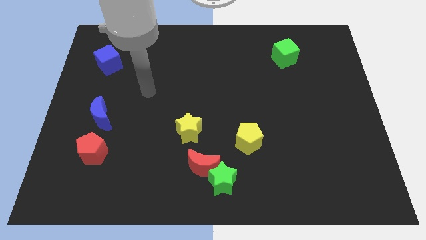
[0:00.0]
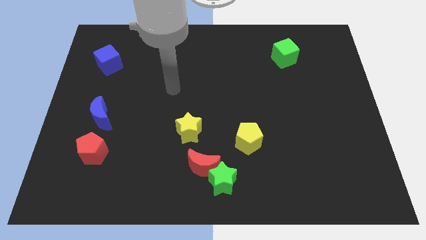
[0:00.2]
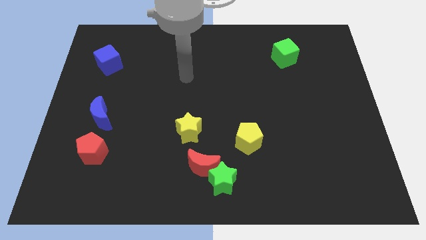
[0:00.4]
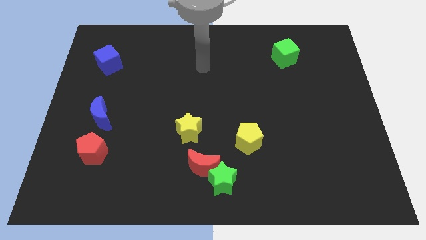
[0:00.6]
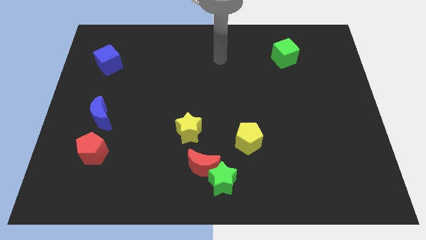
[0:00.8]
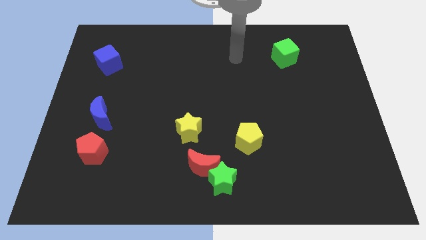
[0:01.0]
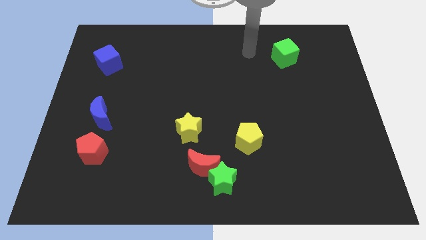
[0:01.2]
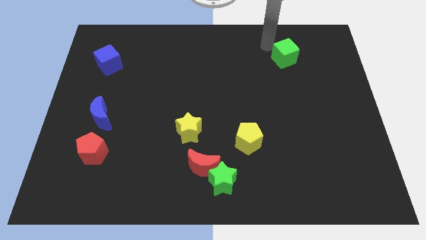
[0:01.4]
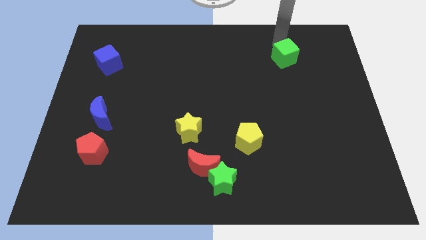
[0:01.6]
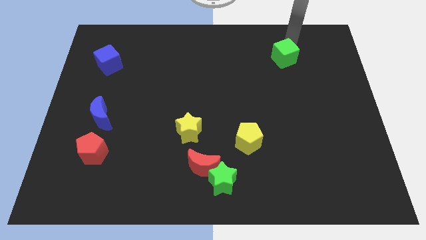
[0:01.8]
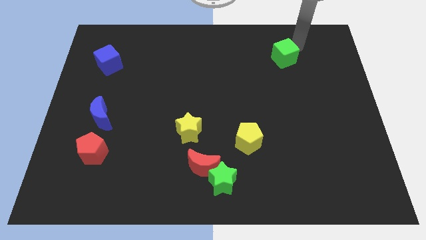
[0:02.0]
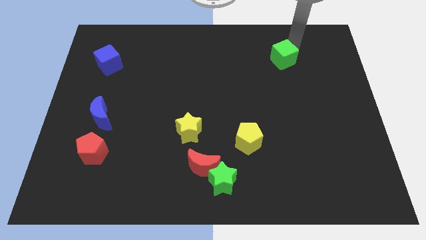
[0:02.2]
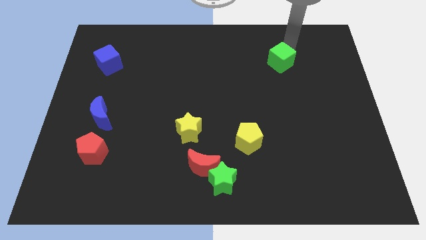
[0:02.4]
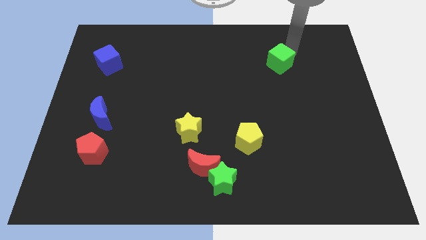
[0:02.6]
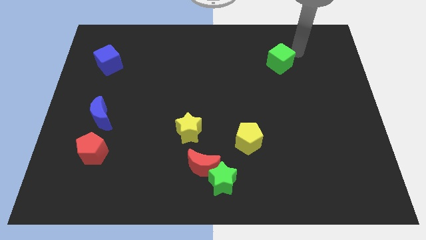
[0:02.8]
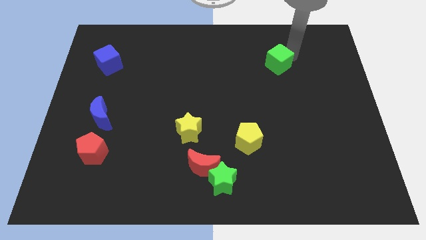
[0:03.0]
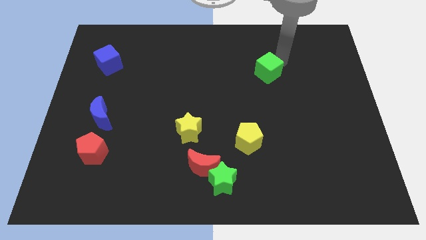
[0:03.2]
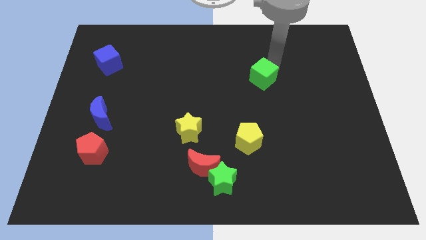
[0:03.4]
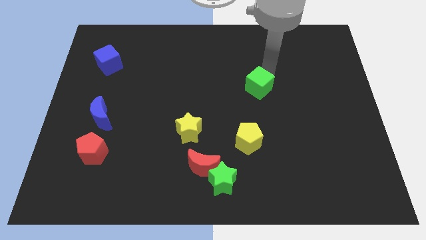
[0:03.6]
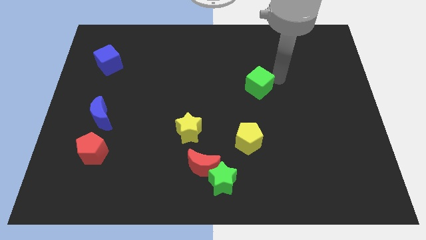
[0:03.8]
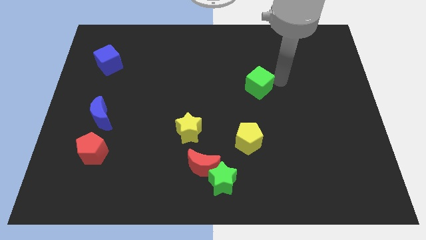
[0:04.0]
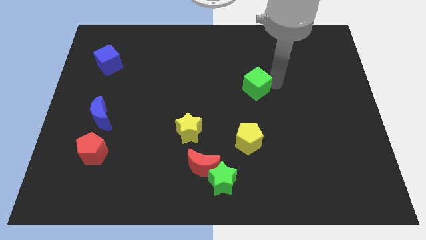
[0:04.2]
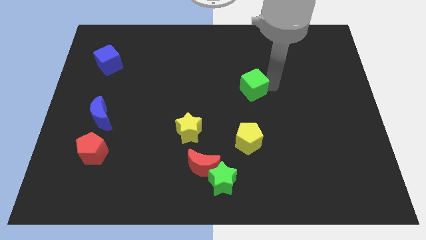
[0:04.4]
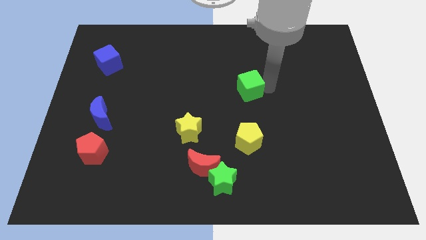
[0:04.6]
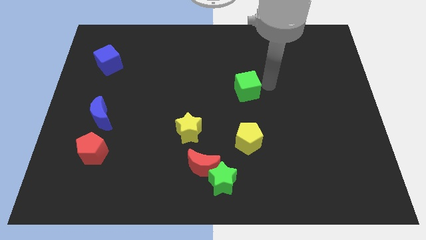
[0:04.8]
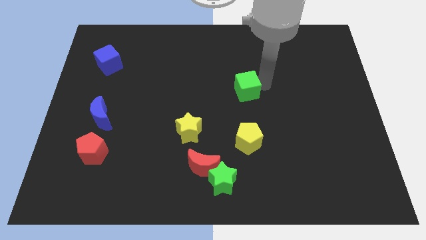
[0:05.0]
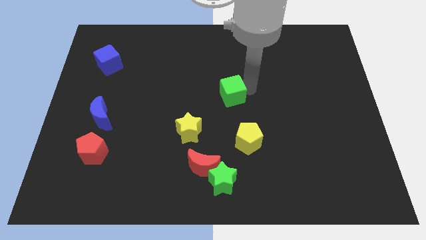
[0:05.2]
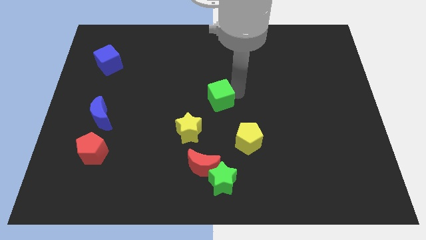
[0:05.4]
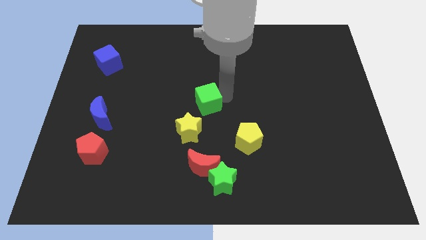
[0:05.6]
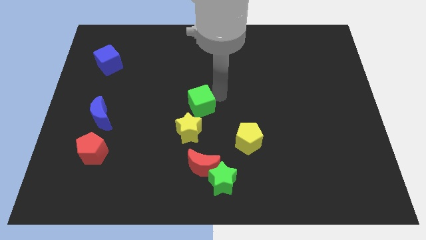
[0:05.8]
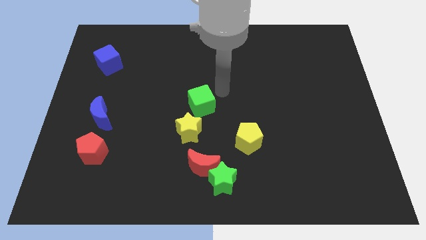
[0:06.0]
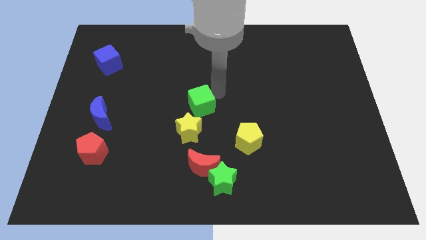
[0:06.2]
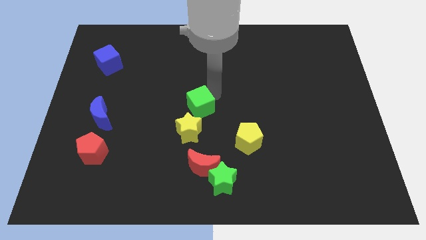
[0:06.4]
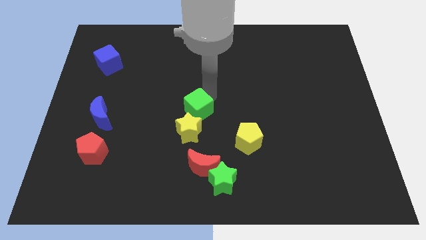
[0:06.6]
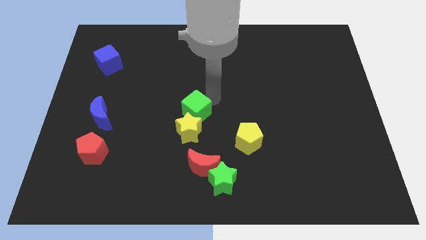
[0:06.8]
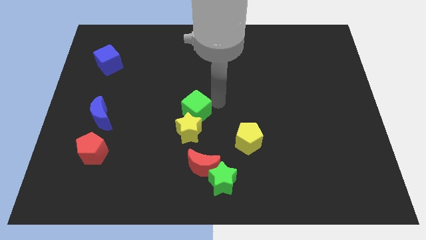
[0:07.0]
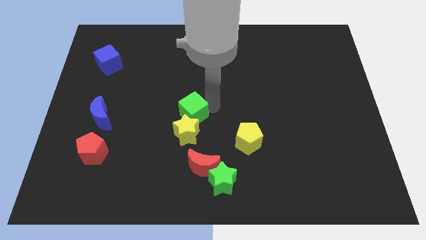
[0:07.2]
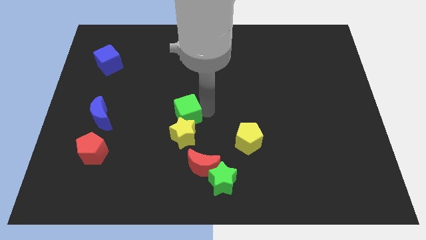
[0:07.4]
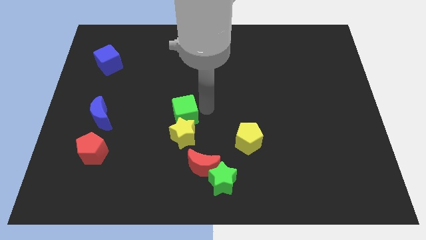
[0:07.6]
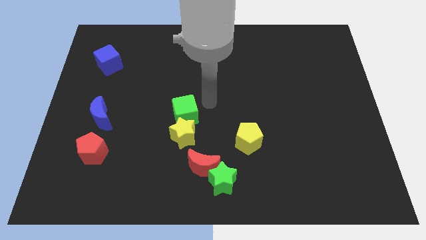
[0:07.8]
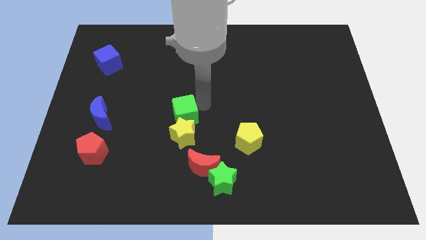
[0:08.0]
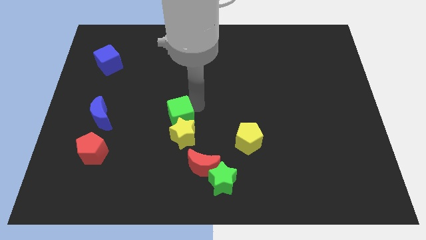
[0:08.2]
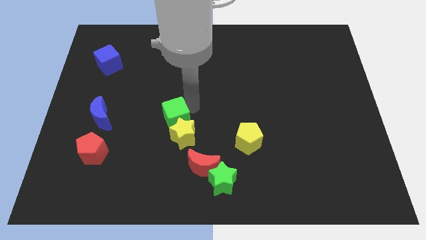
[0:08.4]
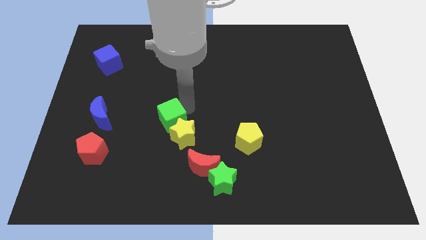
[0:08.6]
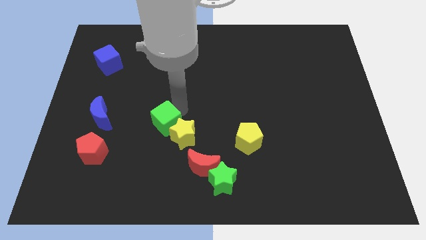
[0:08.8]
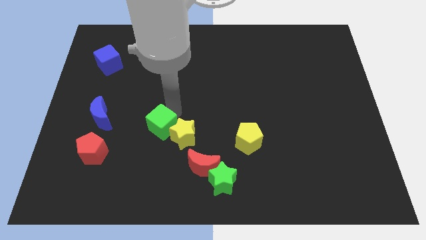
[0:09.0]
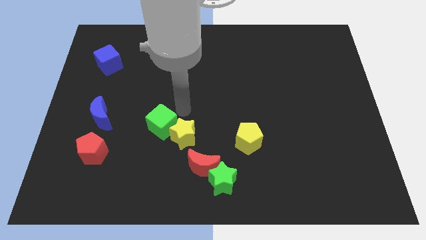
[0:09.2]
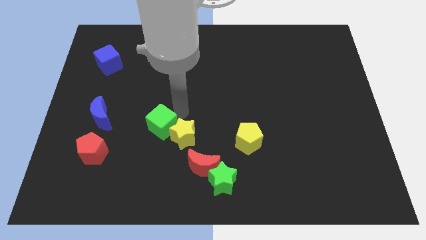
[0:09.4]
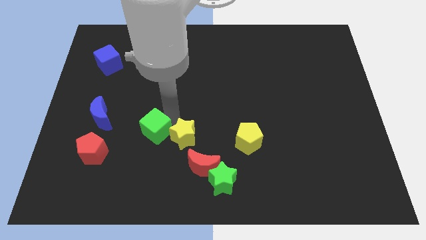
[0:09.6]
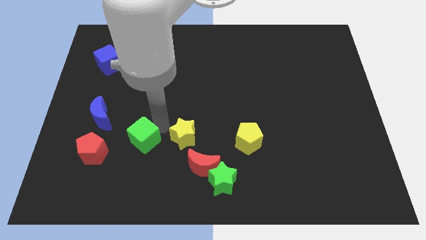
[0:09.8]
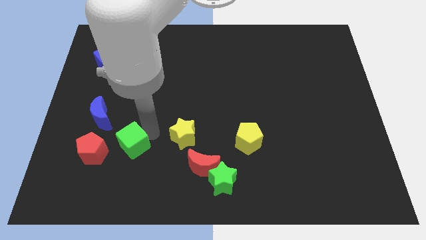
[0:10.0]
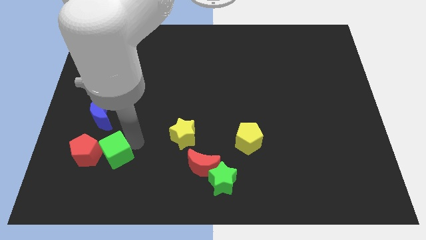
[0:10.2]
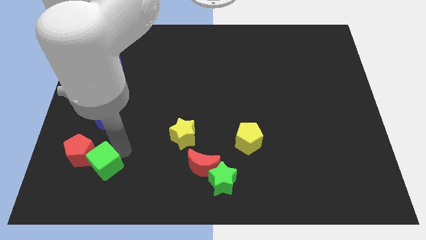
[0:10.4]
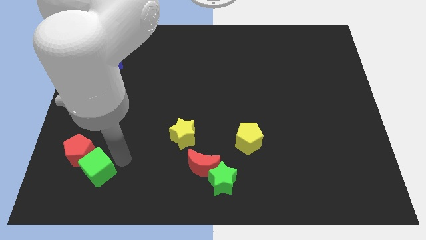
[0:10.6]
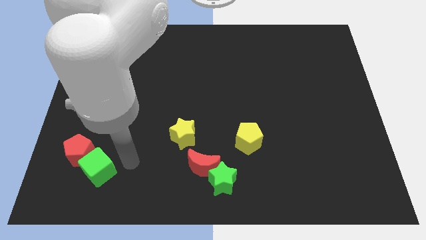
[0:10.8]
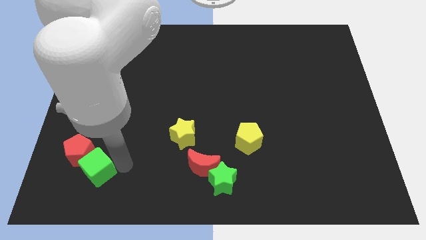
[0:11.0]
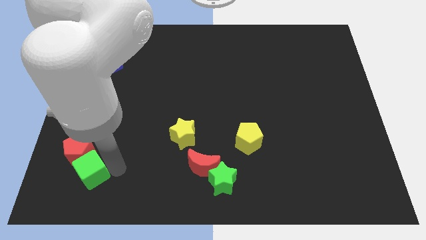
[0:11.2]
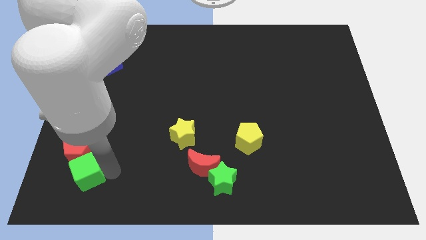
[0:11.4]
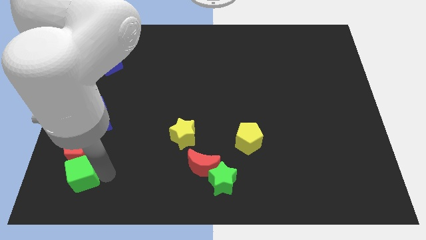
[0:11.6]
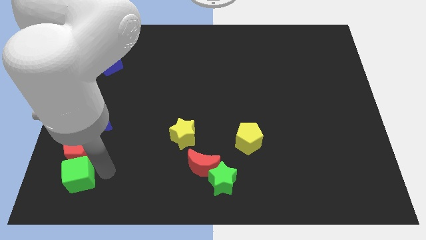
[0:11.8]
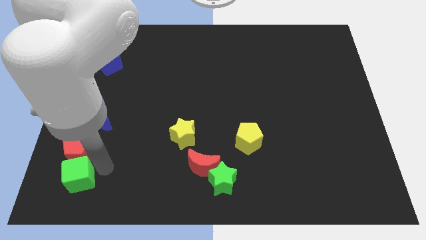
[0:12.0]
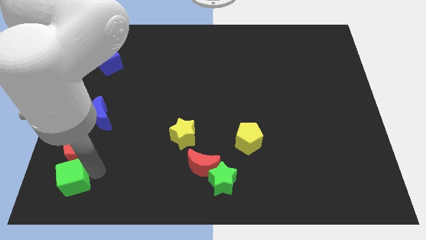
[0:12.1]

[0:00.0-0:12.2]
push the green cube to the bottom left corner

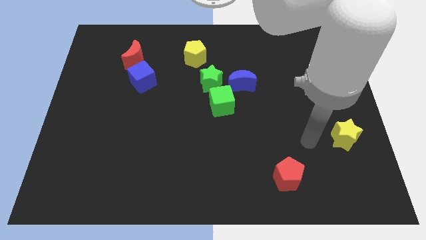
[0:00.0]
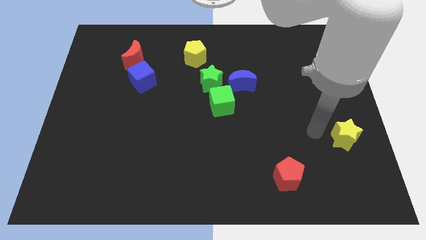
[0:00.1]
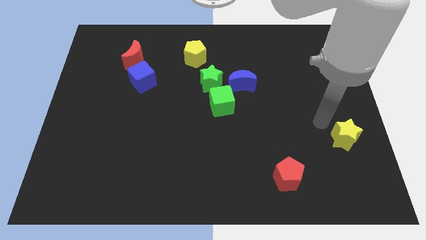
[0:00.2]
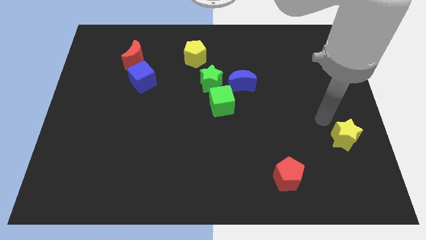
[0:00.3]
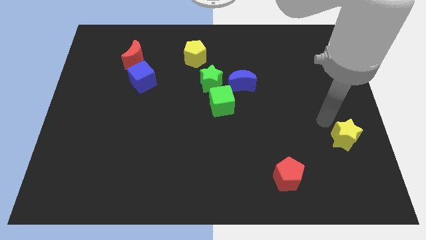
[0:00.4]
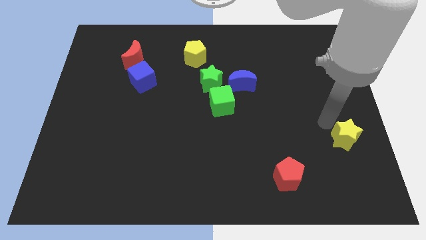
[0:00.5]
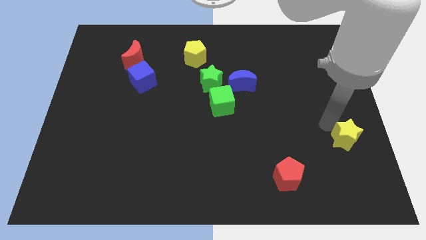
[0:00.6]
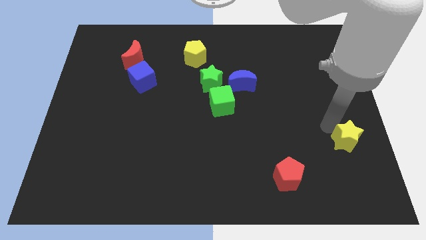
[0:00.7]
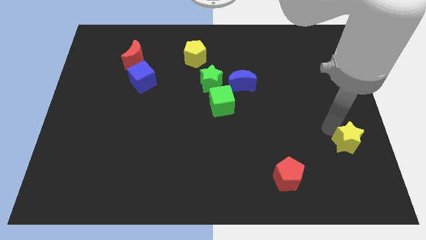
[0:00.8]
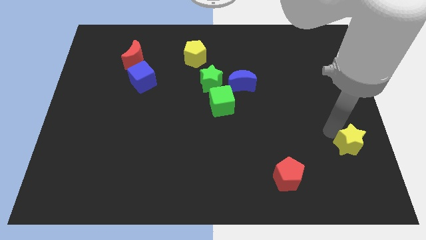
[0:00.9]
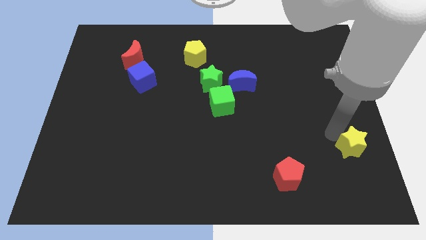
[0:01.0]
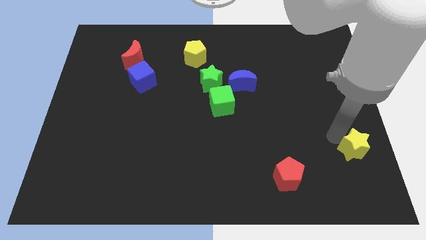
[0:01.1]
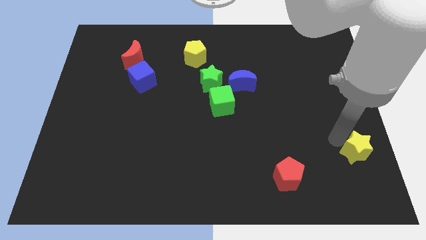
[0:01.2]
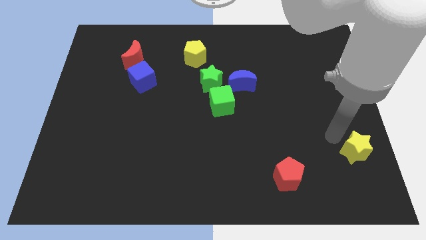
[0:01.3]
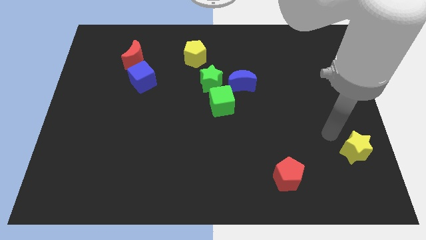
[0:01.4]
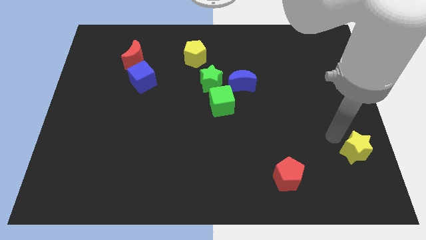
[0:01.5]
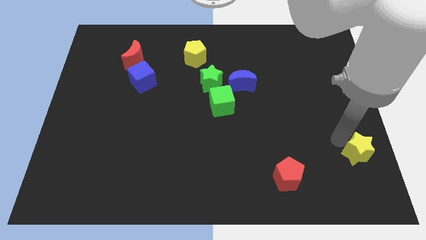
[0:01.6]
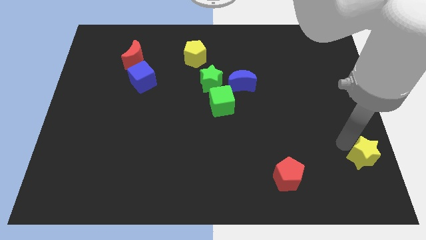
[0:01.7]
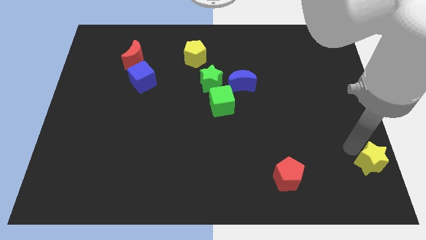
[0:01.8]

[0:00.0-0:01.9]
push the yellow star to the lower right corner
